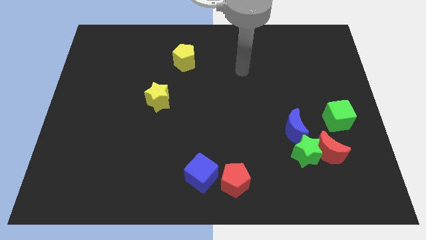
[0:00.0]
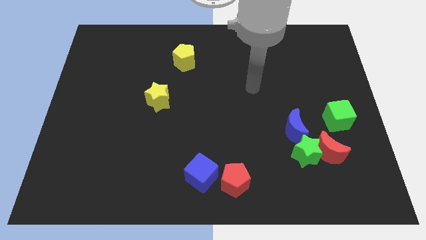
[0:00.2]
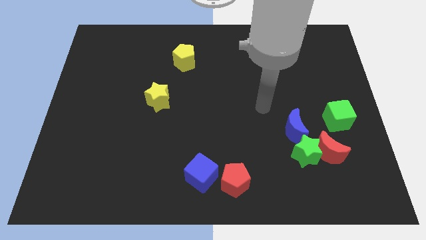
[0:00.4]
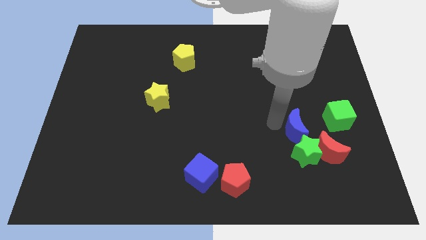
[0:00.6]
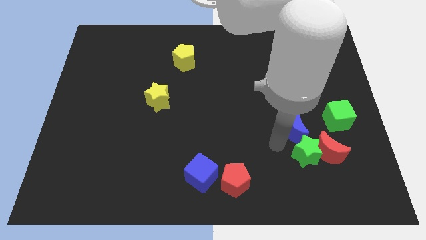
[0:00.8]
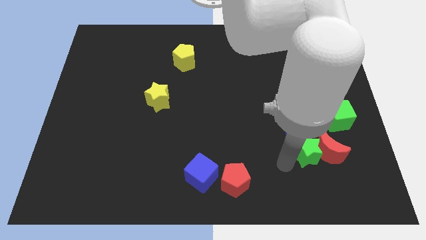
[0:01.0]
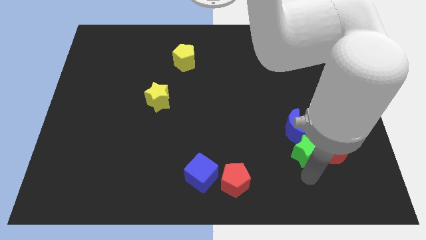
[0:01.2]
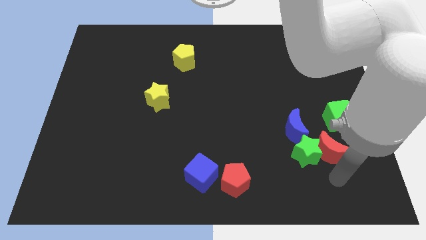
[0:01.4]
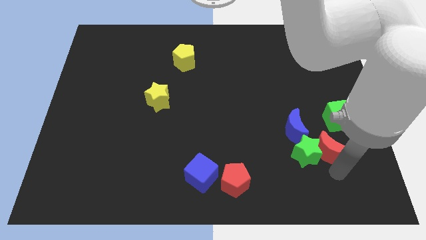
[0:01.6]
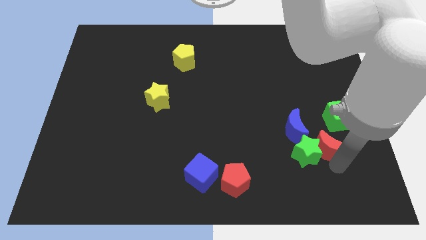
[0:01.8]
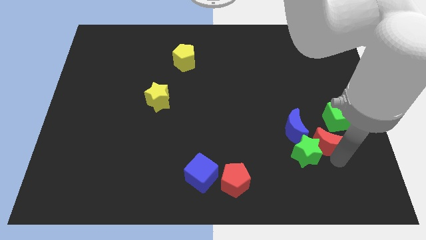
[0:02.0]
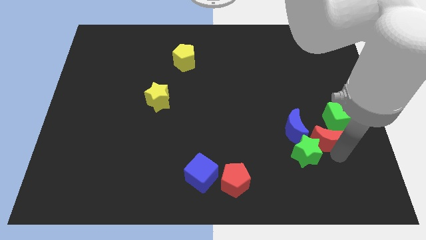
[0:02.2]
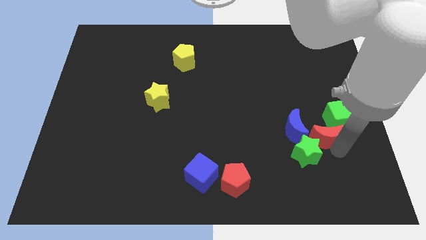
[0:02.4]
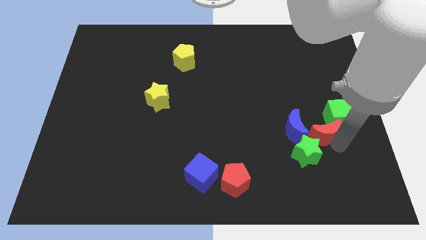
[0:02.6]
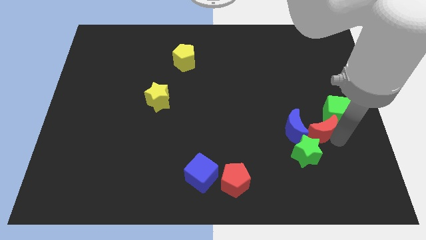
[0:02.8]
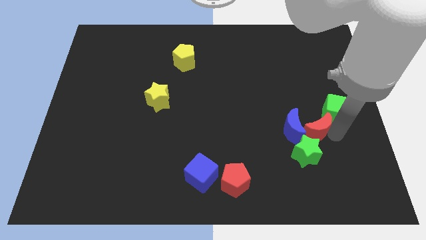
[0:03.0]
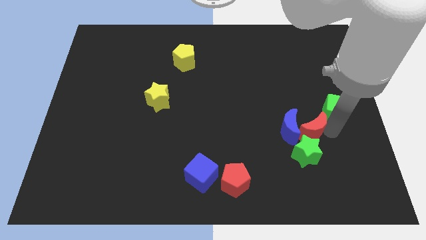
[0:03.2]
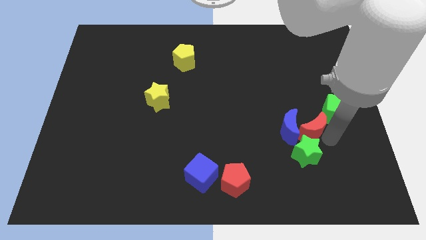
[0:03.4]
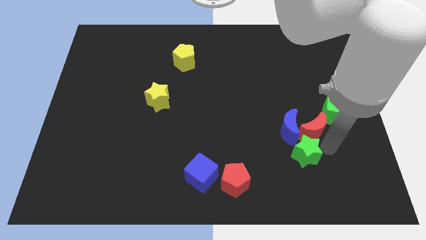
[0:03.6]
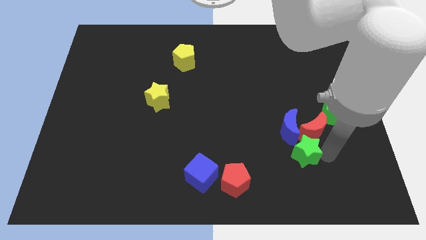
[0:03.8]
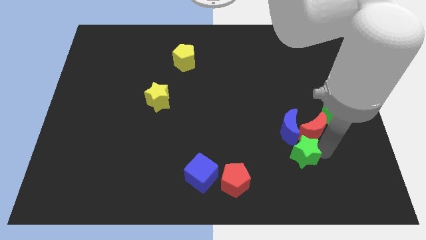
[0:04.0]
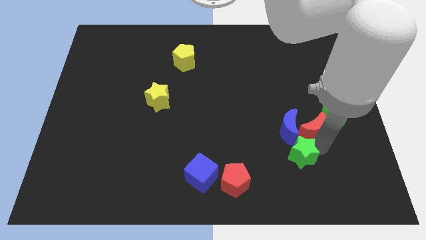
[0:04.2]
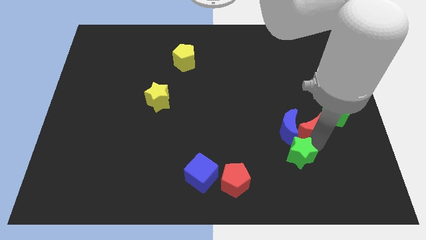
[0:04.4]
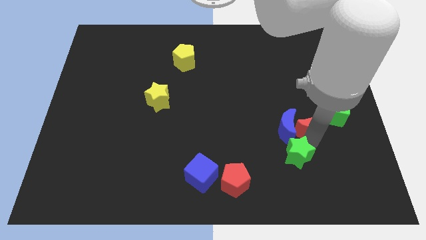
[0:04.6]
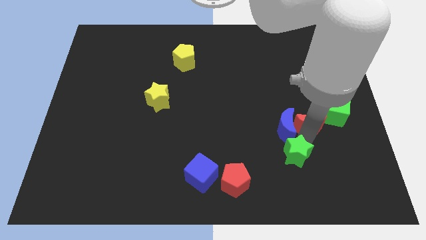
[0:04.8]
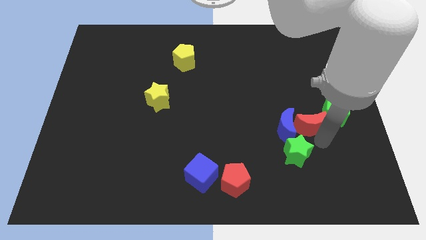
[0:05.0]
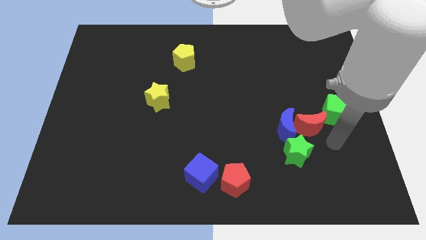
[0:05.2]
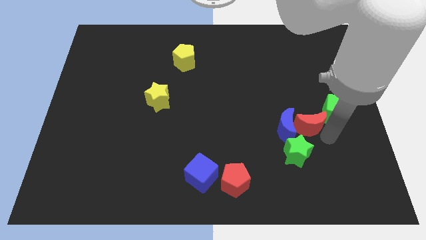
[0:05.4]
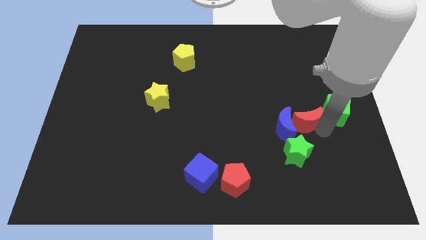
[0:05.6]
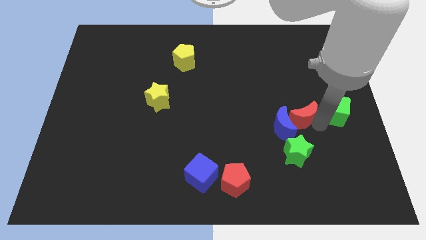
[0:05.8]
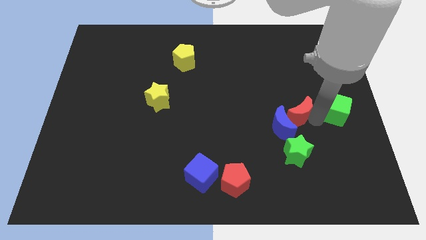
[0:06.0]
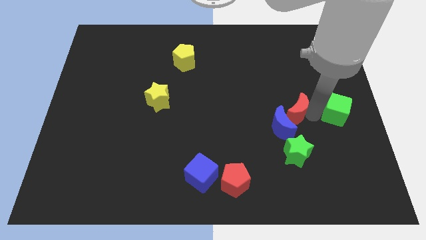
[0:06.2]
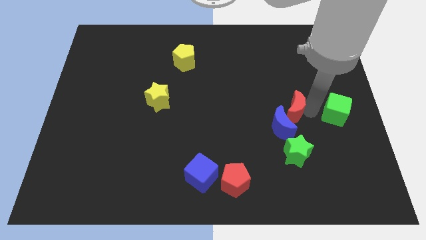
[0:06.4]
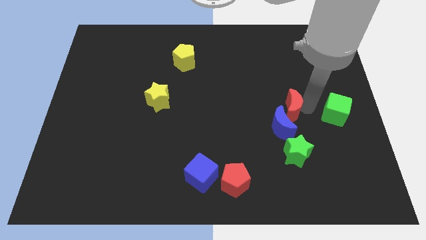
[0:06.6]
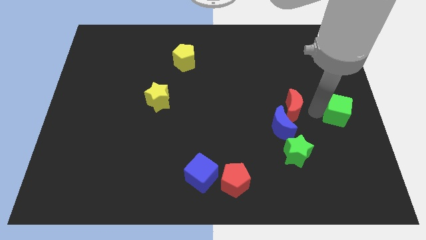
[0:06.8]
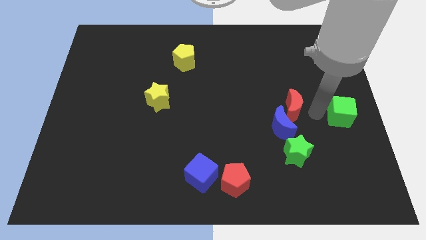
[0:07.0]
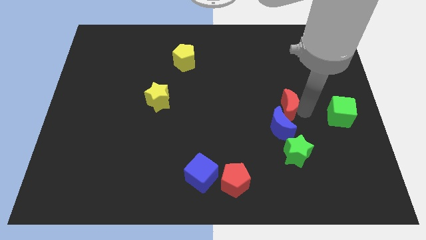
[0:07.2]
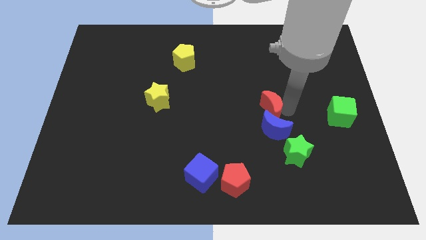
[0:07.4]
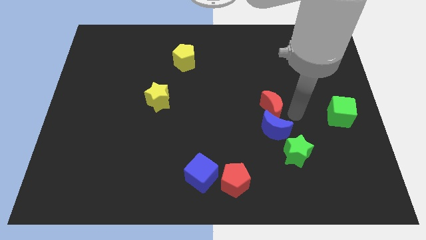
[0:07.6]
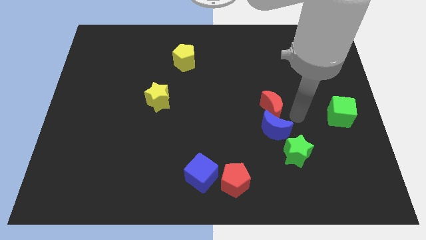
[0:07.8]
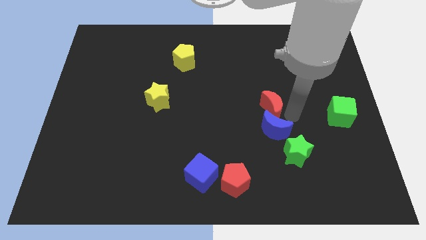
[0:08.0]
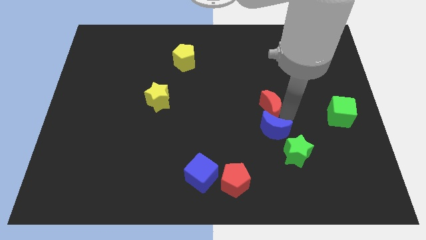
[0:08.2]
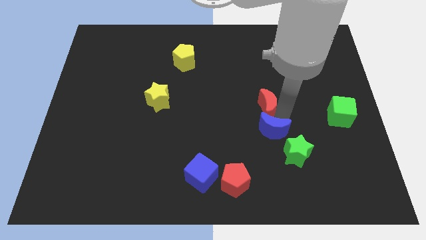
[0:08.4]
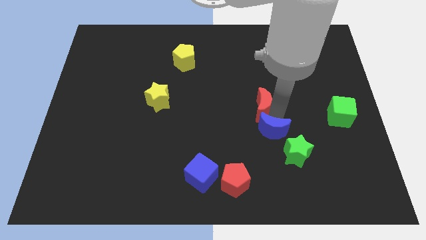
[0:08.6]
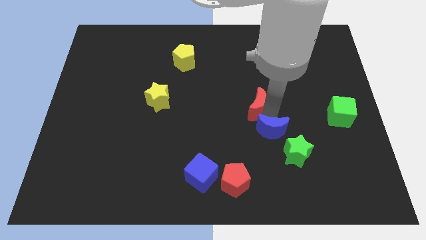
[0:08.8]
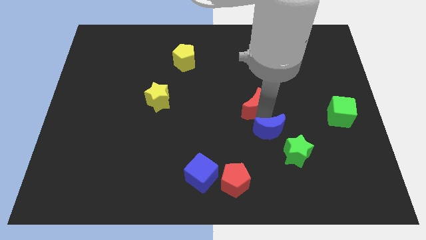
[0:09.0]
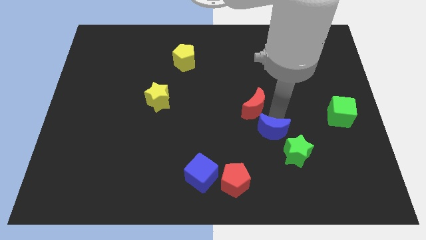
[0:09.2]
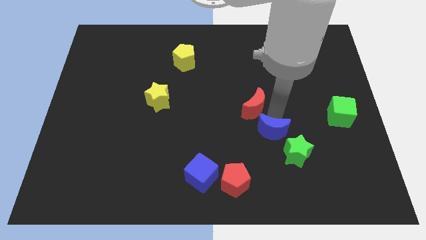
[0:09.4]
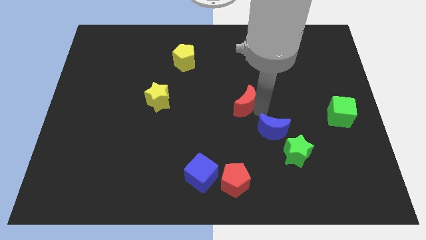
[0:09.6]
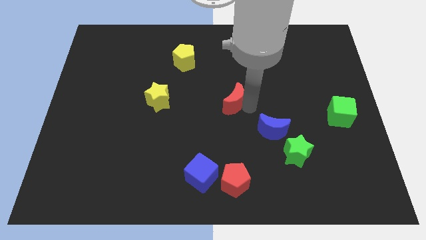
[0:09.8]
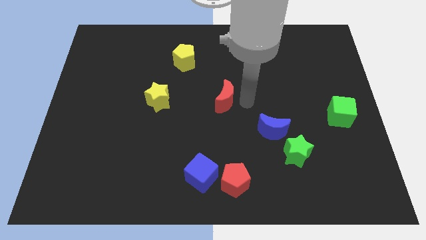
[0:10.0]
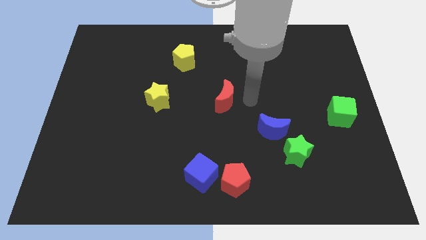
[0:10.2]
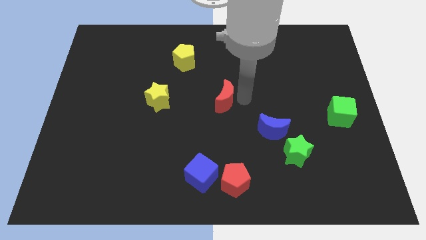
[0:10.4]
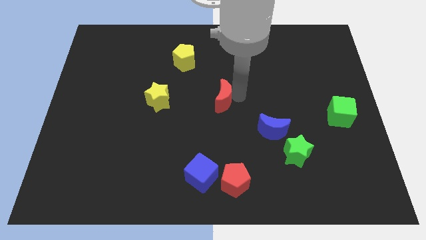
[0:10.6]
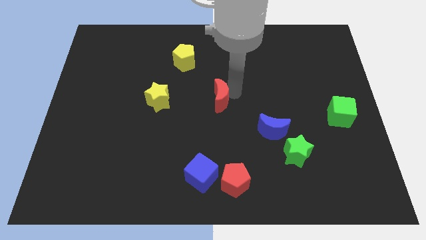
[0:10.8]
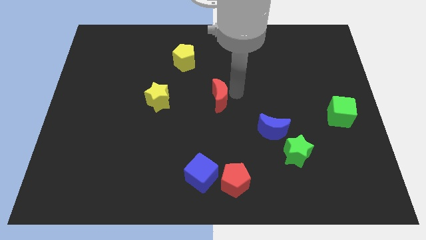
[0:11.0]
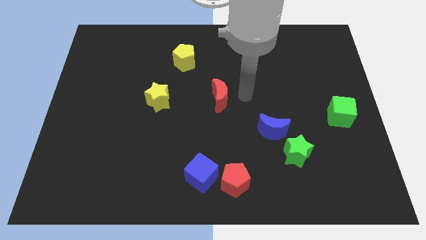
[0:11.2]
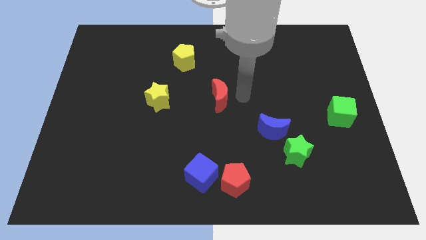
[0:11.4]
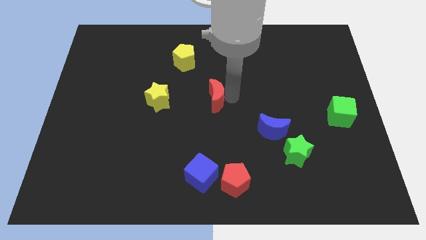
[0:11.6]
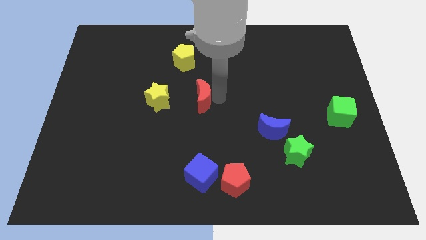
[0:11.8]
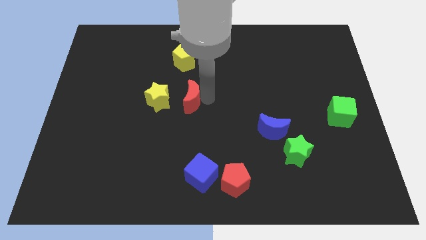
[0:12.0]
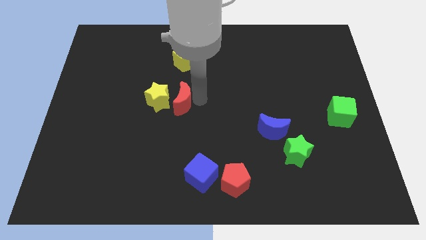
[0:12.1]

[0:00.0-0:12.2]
put the red moon to the yellow star
